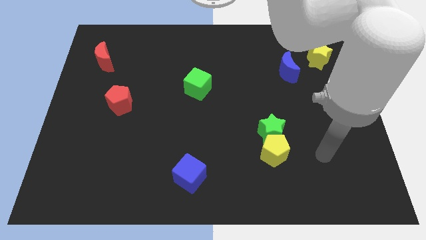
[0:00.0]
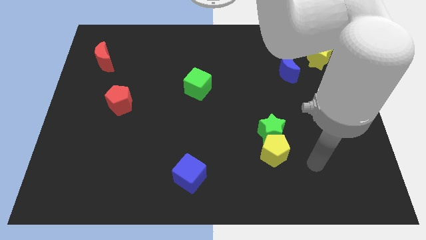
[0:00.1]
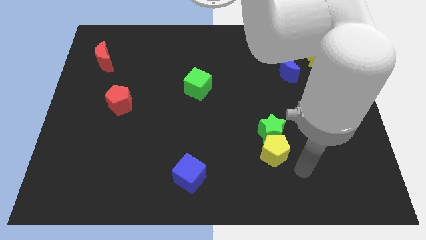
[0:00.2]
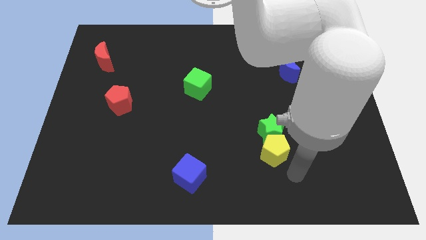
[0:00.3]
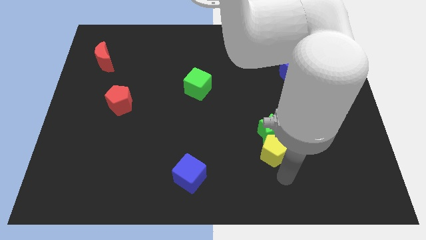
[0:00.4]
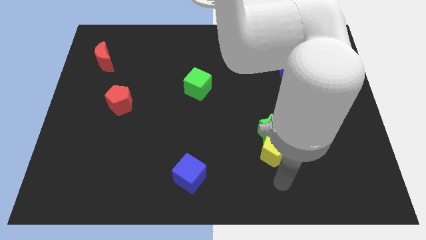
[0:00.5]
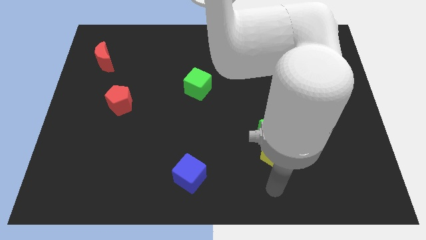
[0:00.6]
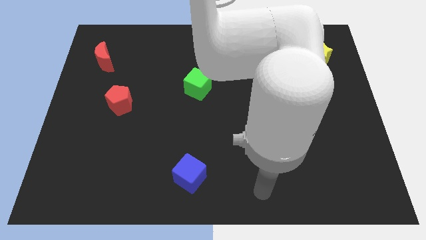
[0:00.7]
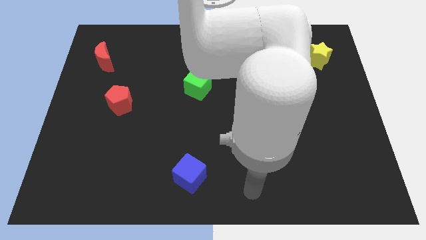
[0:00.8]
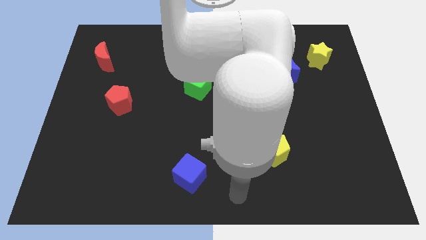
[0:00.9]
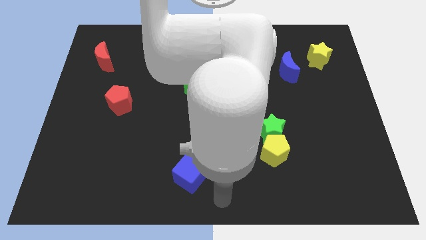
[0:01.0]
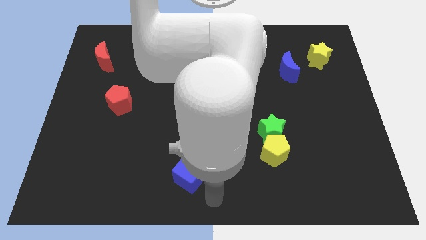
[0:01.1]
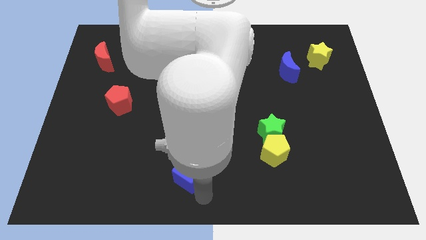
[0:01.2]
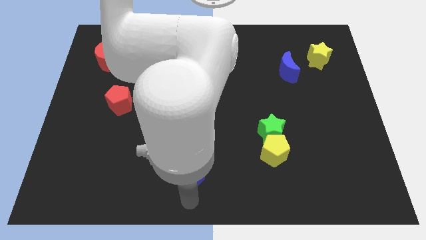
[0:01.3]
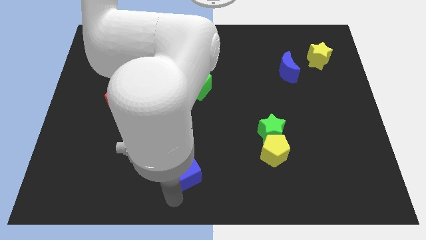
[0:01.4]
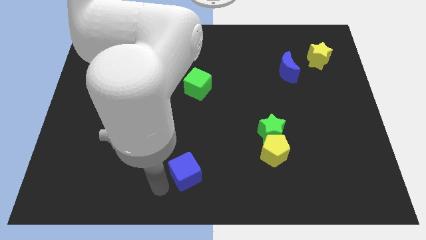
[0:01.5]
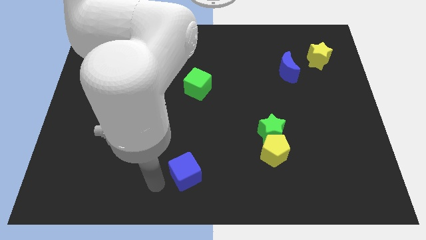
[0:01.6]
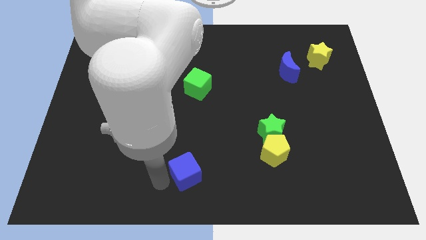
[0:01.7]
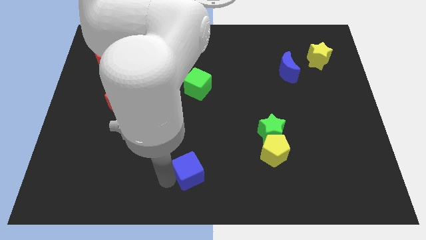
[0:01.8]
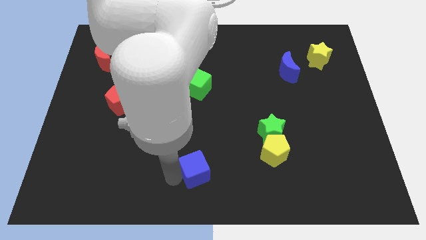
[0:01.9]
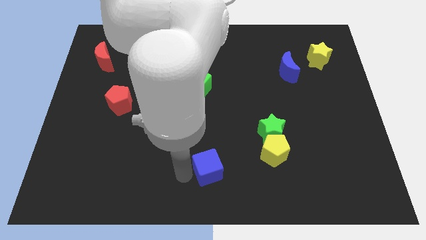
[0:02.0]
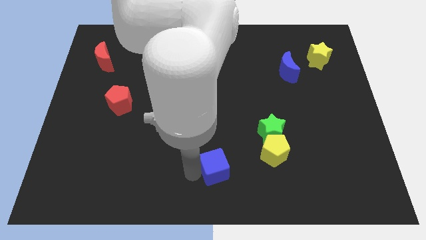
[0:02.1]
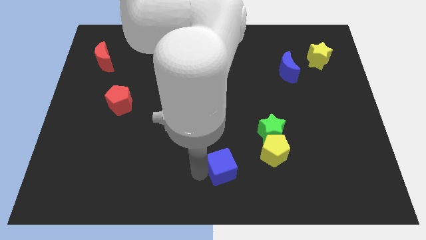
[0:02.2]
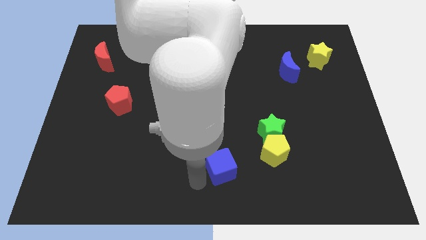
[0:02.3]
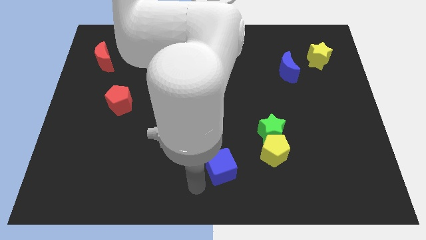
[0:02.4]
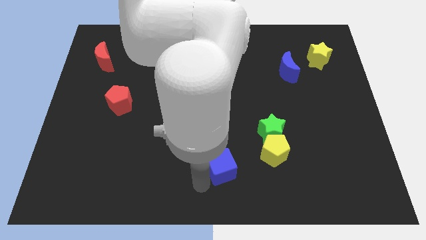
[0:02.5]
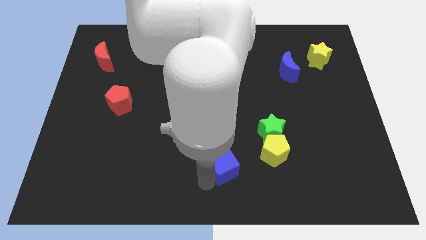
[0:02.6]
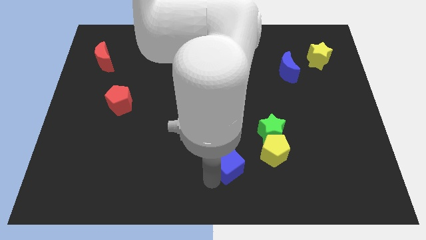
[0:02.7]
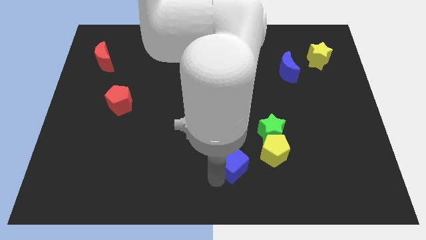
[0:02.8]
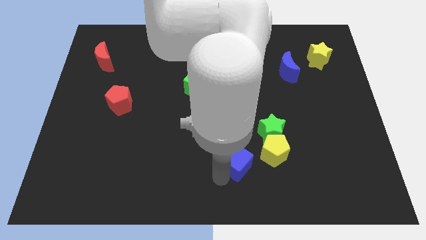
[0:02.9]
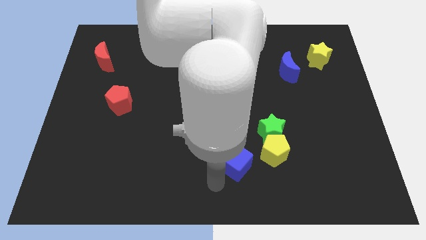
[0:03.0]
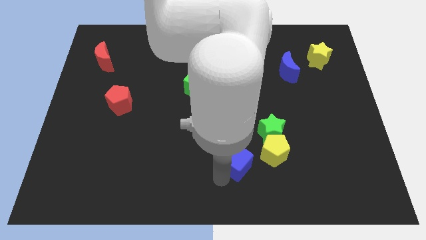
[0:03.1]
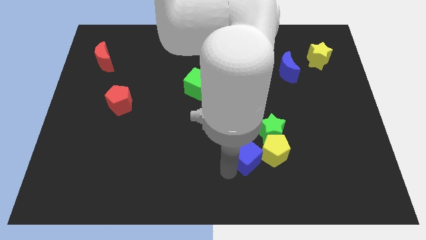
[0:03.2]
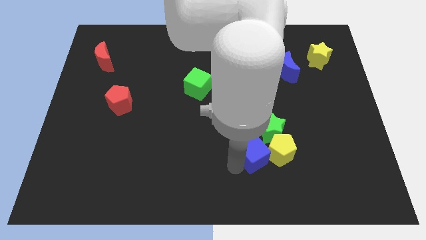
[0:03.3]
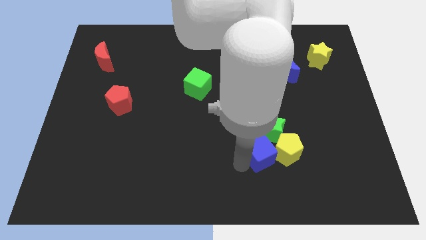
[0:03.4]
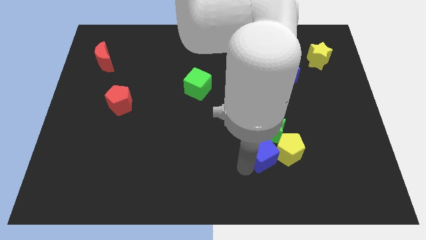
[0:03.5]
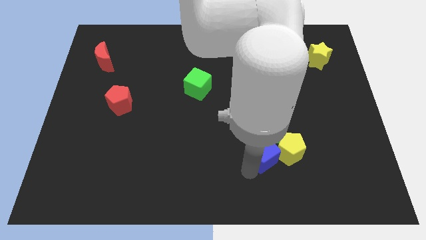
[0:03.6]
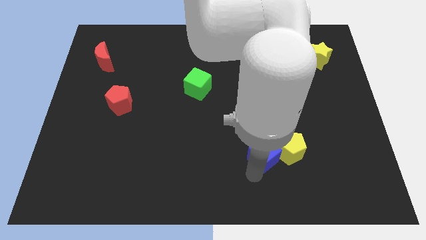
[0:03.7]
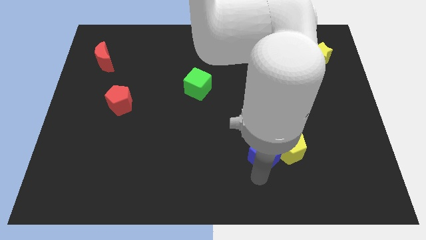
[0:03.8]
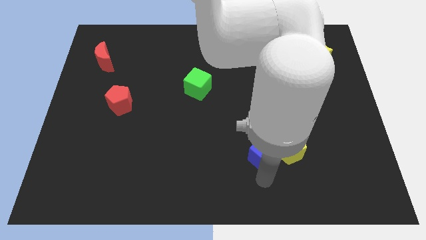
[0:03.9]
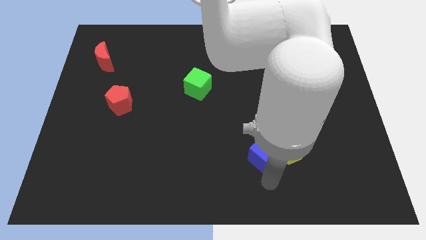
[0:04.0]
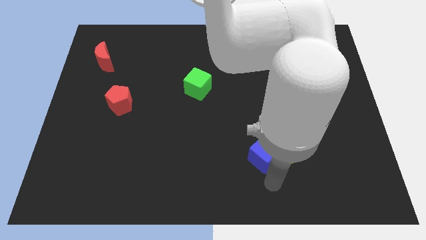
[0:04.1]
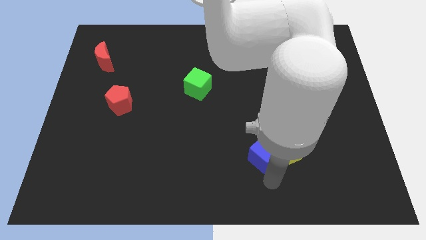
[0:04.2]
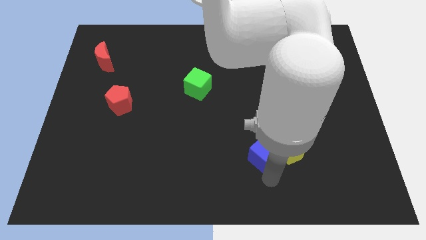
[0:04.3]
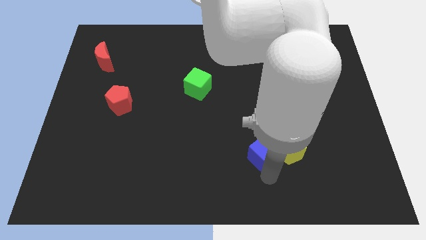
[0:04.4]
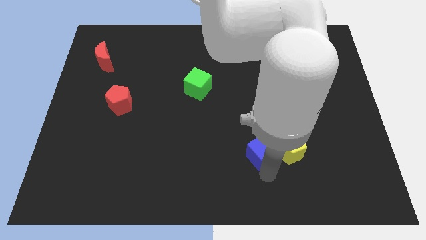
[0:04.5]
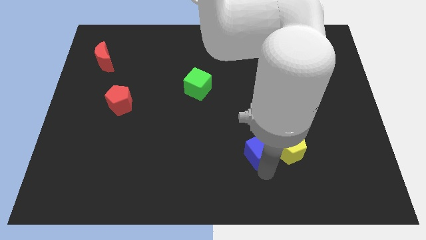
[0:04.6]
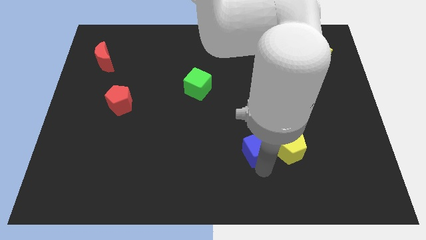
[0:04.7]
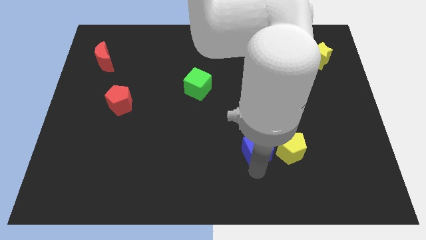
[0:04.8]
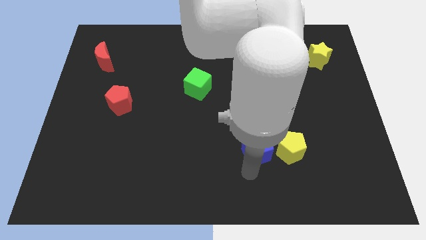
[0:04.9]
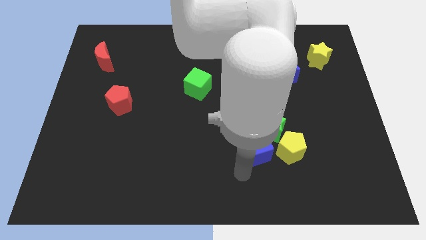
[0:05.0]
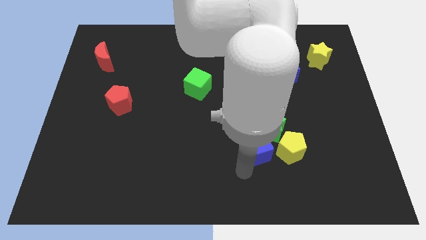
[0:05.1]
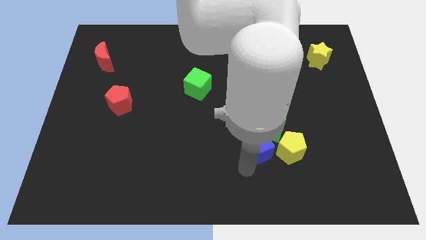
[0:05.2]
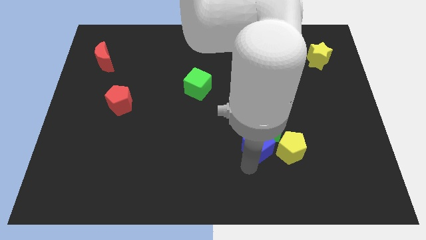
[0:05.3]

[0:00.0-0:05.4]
push the blue cube close to the green star

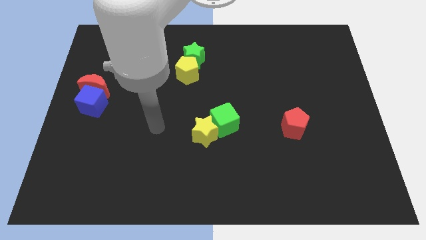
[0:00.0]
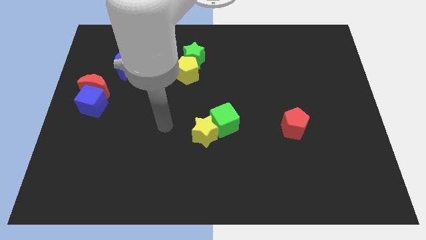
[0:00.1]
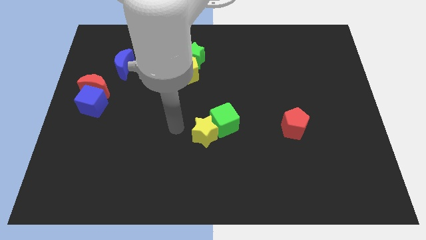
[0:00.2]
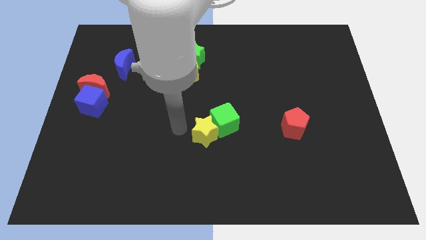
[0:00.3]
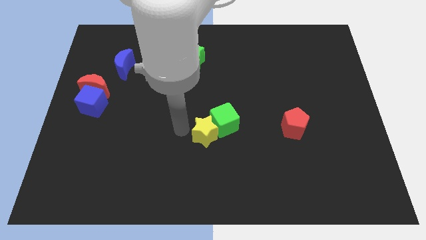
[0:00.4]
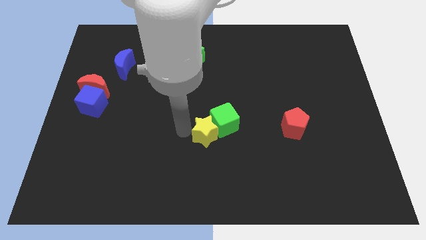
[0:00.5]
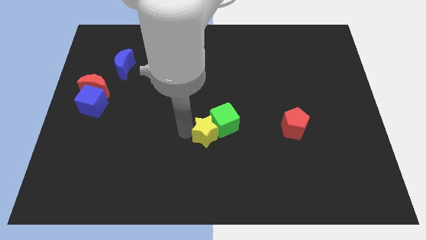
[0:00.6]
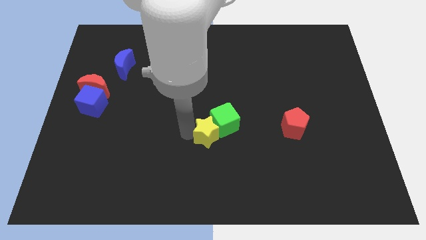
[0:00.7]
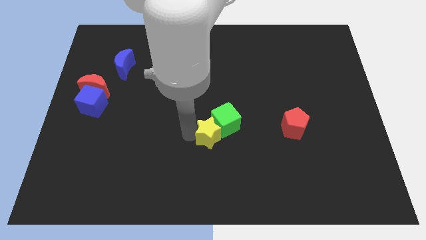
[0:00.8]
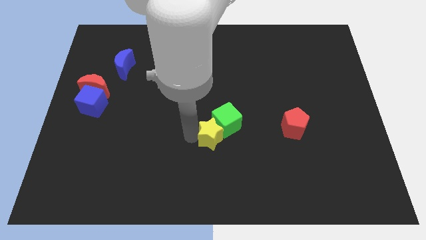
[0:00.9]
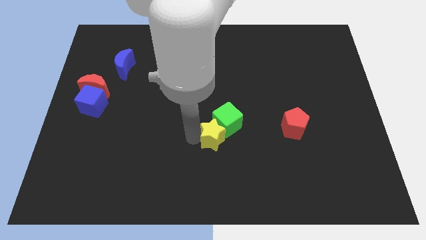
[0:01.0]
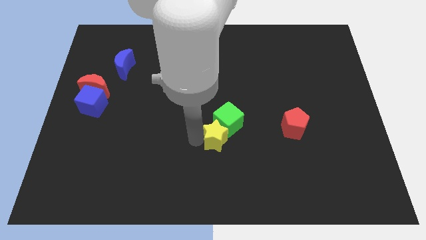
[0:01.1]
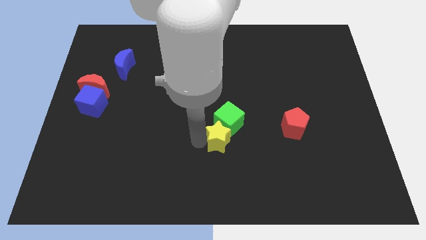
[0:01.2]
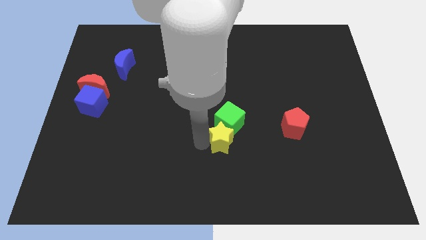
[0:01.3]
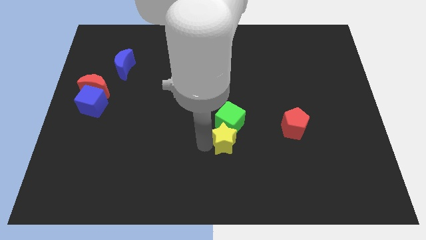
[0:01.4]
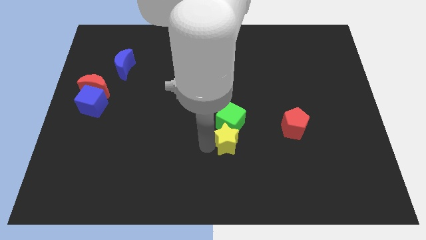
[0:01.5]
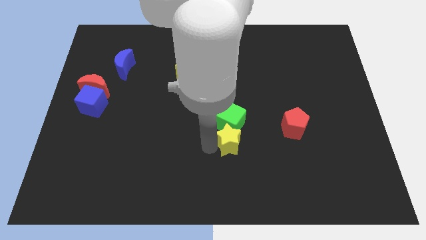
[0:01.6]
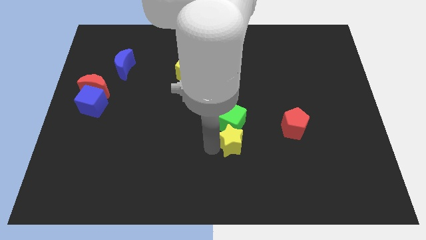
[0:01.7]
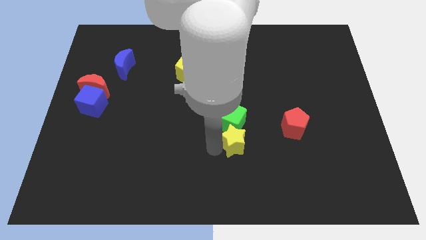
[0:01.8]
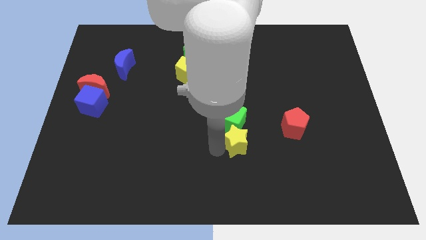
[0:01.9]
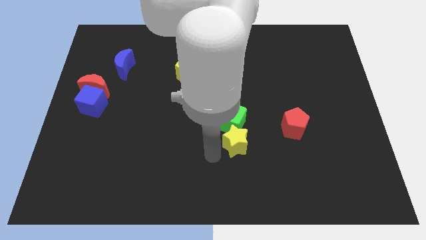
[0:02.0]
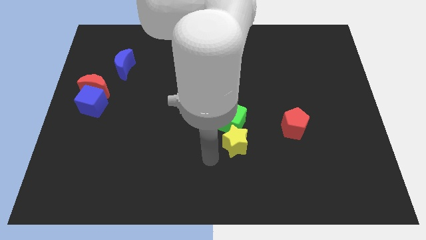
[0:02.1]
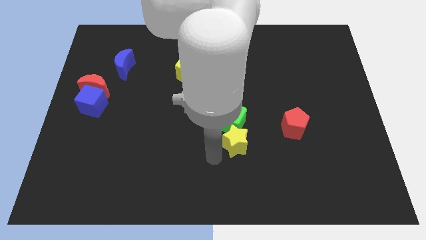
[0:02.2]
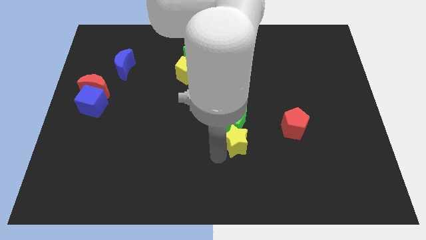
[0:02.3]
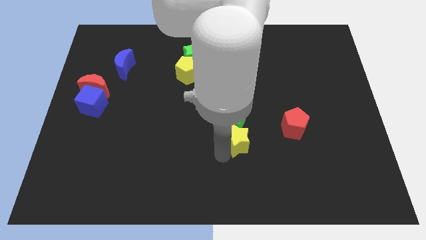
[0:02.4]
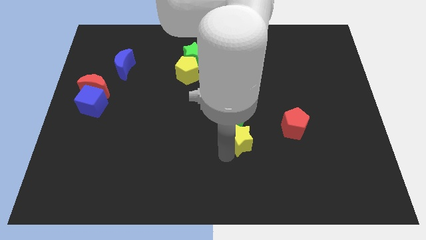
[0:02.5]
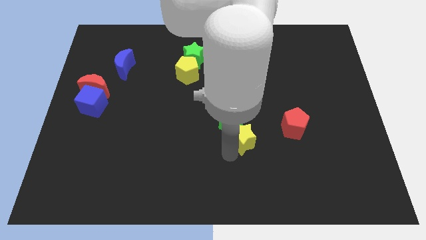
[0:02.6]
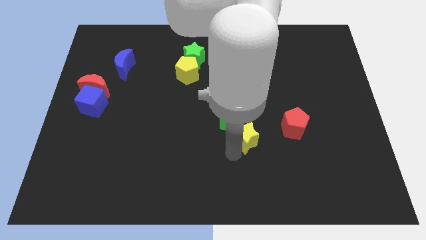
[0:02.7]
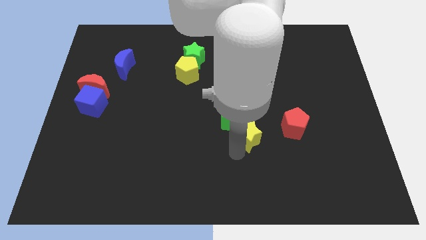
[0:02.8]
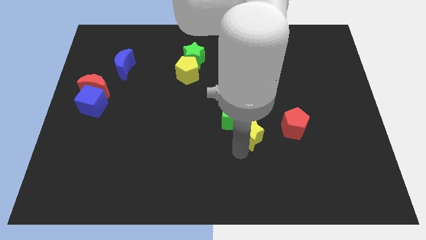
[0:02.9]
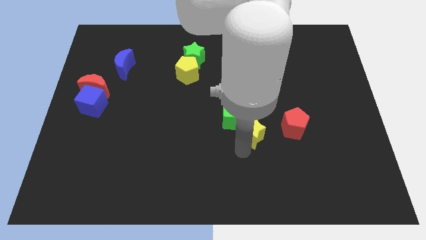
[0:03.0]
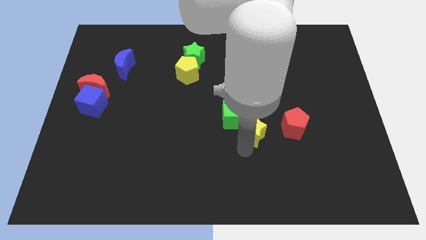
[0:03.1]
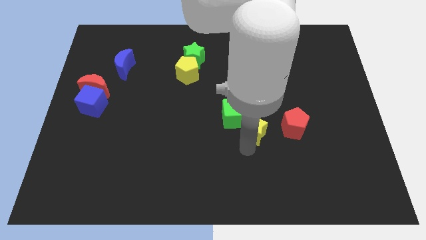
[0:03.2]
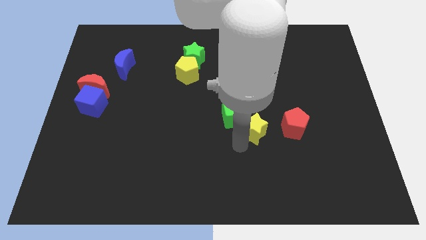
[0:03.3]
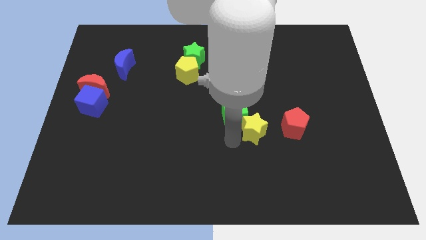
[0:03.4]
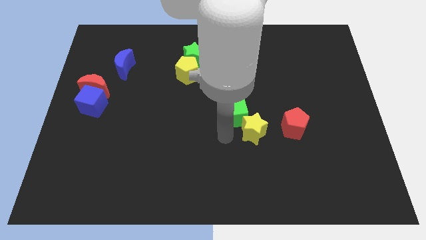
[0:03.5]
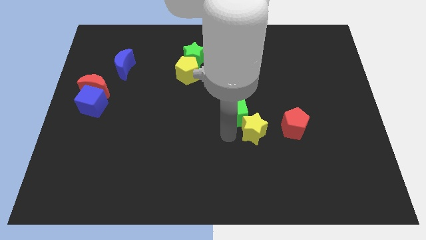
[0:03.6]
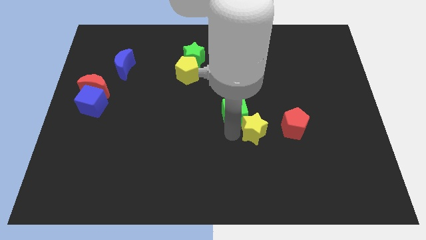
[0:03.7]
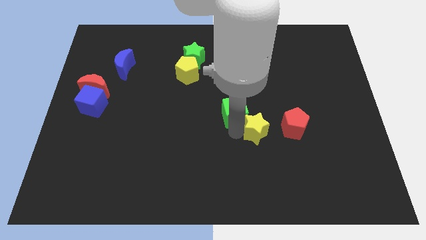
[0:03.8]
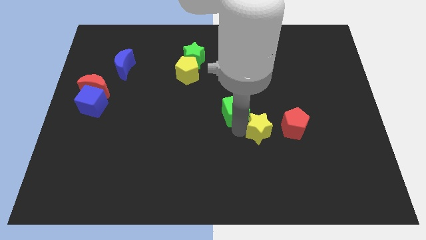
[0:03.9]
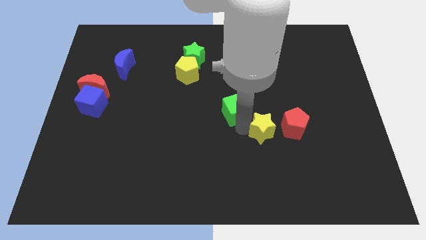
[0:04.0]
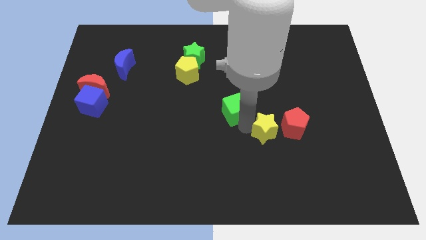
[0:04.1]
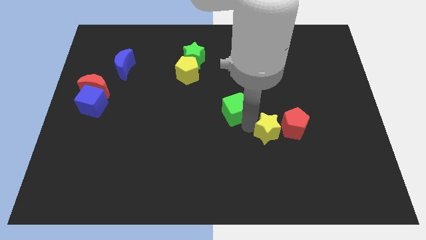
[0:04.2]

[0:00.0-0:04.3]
push the yellow star to the red pentagon
